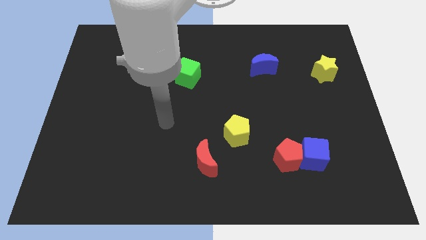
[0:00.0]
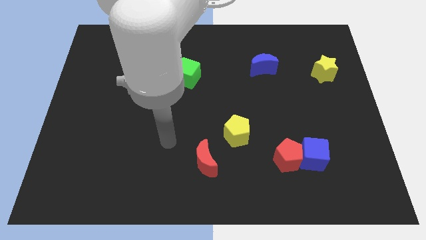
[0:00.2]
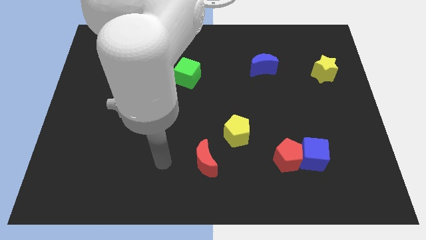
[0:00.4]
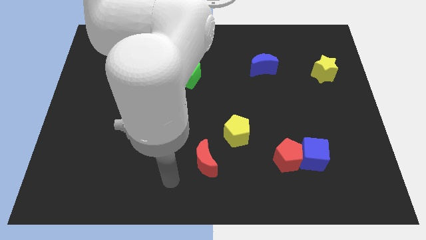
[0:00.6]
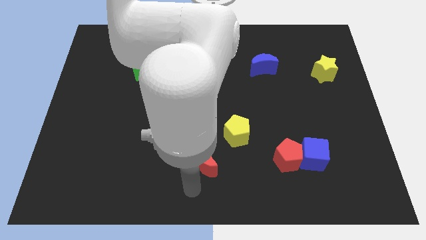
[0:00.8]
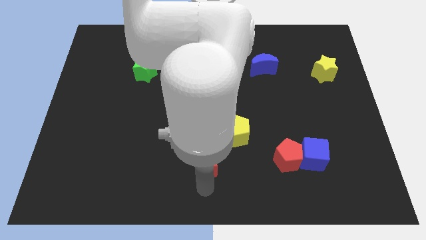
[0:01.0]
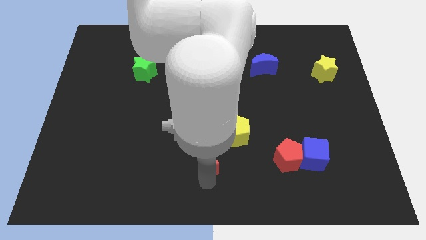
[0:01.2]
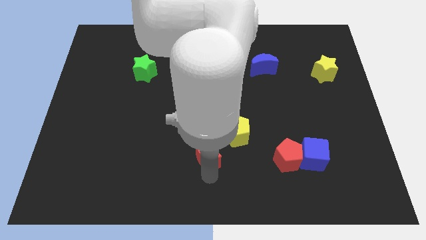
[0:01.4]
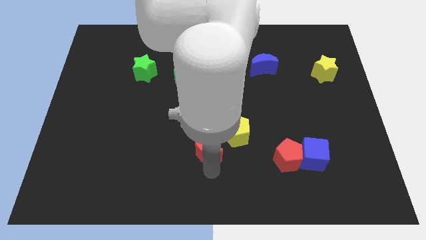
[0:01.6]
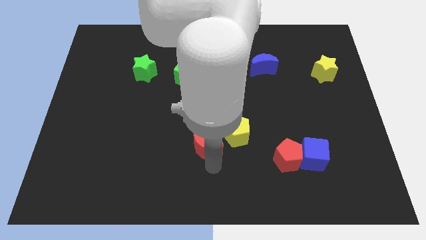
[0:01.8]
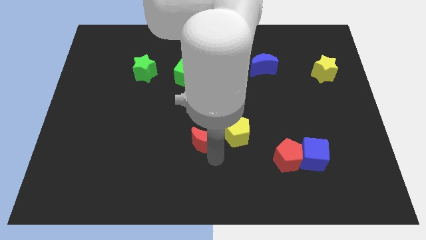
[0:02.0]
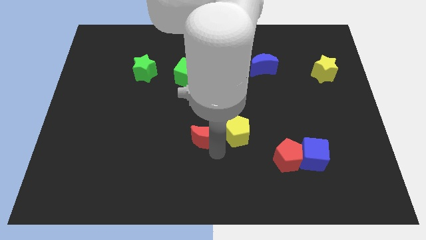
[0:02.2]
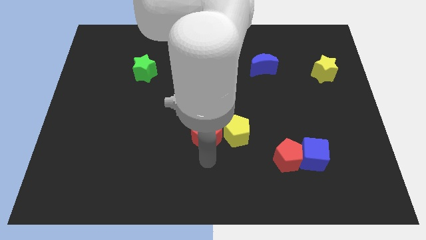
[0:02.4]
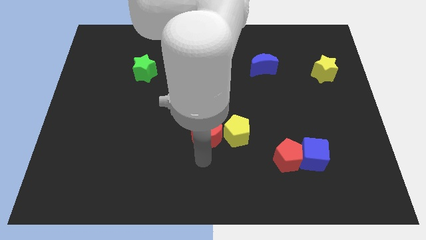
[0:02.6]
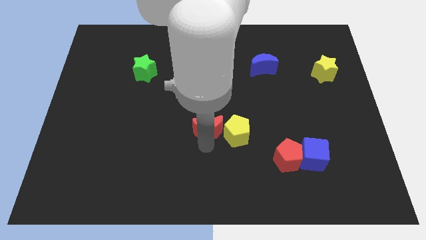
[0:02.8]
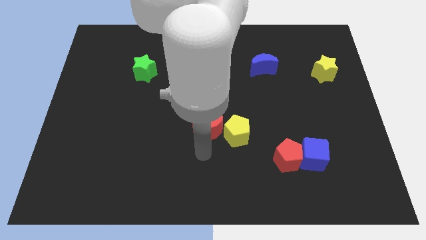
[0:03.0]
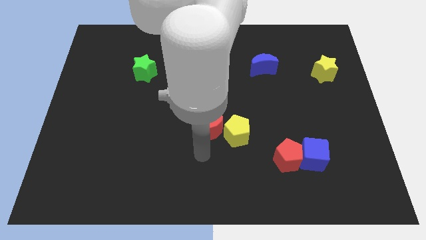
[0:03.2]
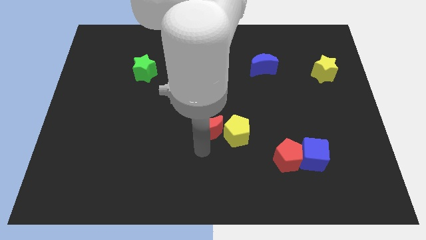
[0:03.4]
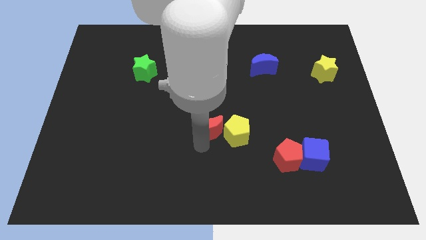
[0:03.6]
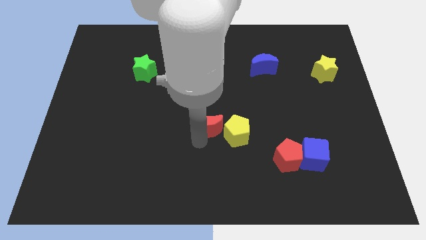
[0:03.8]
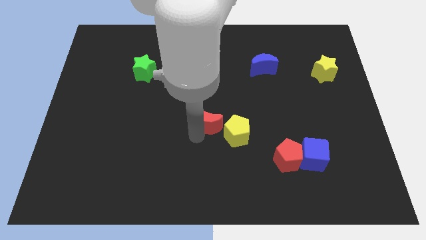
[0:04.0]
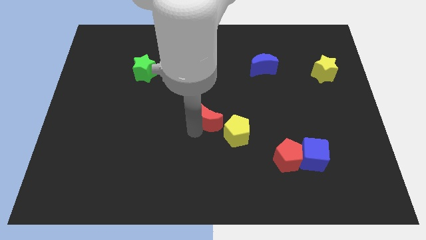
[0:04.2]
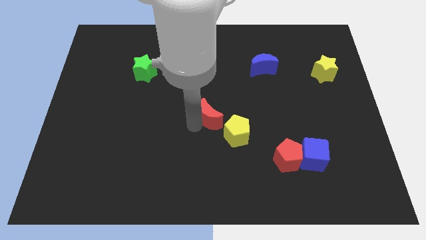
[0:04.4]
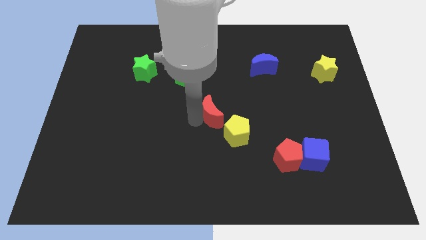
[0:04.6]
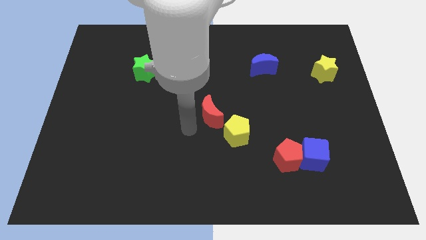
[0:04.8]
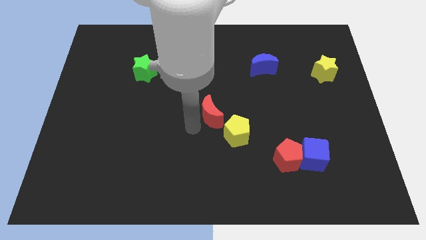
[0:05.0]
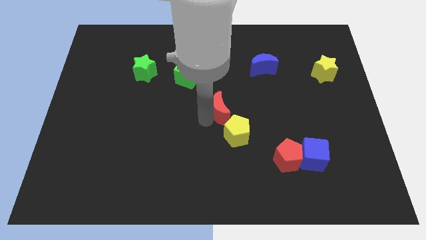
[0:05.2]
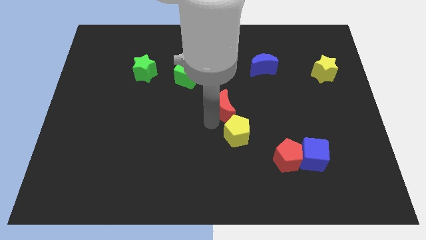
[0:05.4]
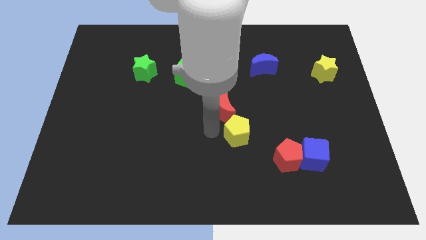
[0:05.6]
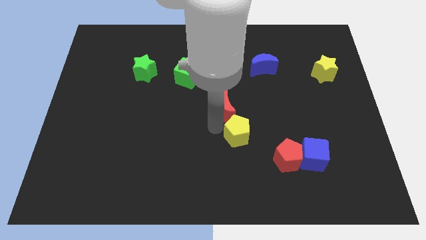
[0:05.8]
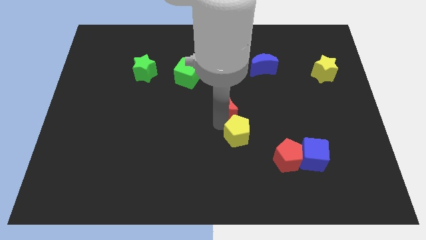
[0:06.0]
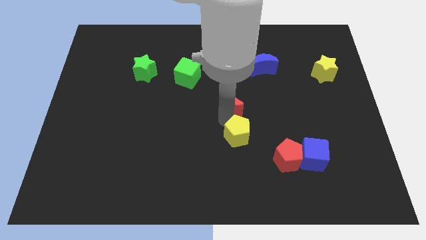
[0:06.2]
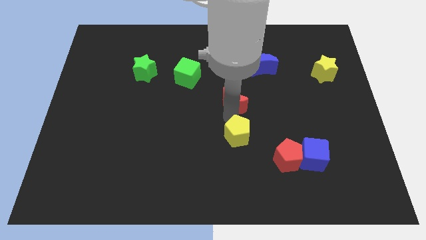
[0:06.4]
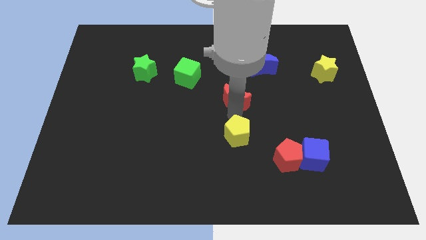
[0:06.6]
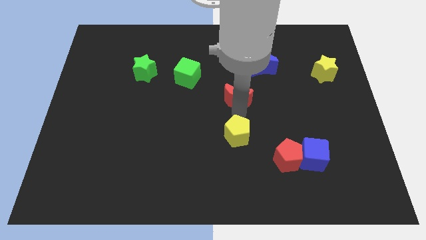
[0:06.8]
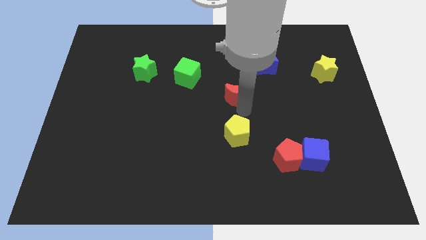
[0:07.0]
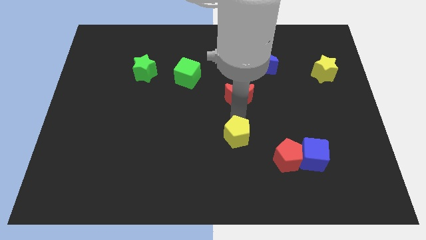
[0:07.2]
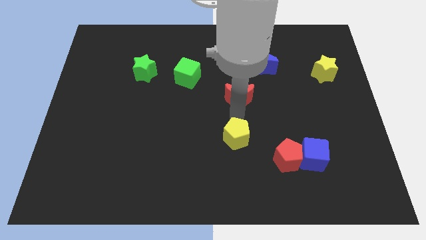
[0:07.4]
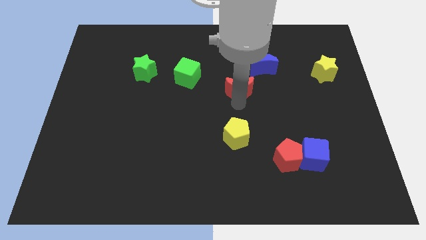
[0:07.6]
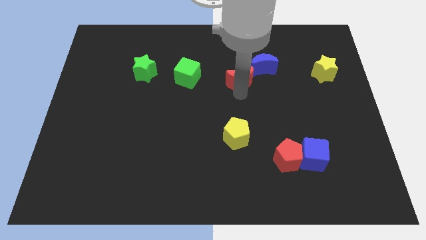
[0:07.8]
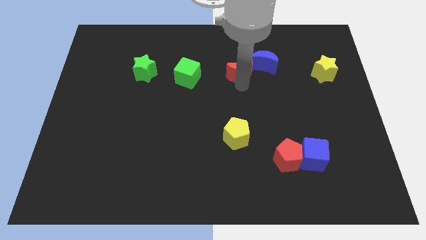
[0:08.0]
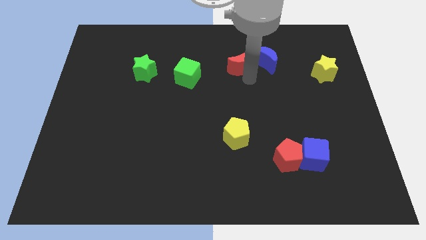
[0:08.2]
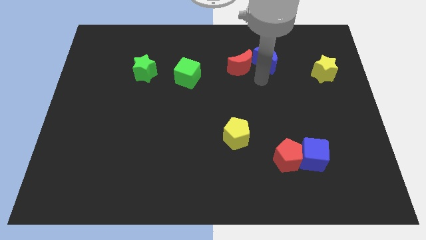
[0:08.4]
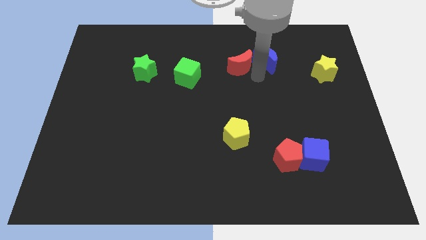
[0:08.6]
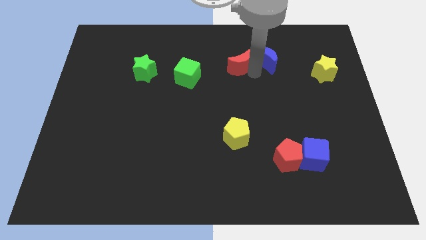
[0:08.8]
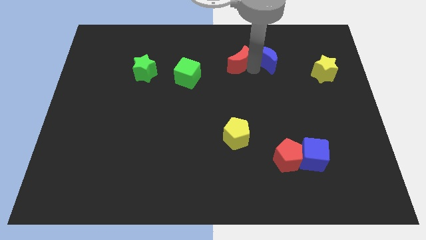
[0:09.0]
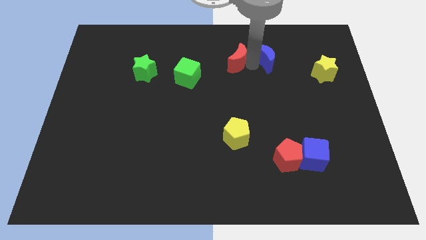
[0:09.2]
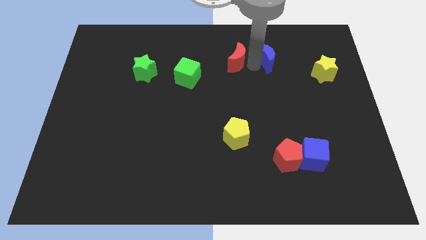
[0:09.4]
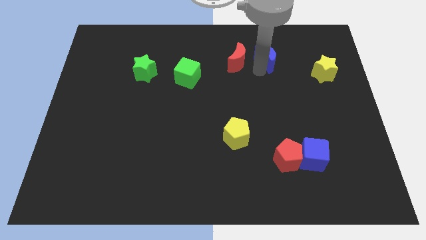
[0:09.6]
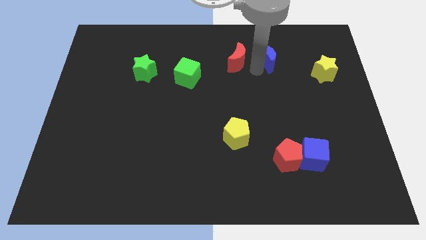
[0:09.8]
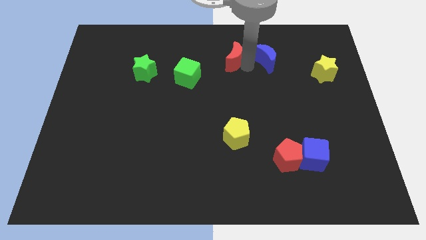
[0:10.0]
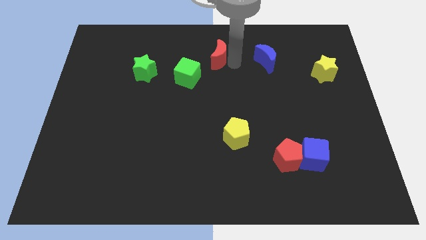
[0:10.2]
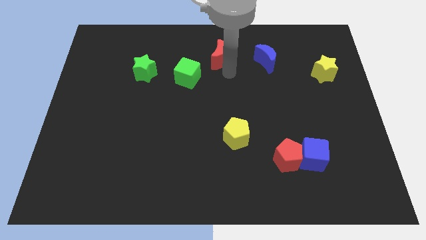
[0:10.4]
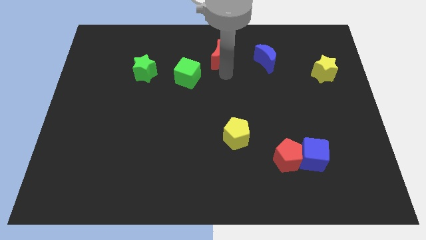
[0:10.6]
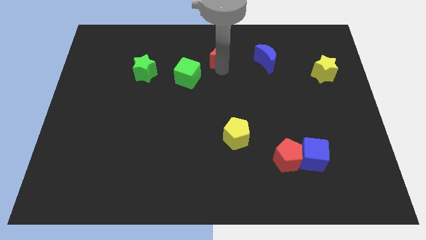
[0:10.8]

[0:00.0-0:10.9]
move the red moon to the top side

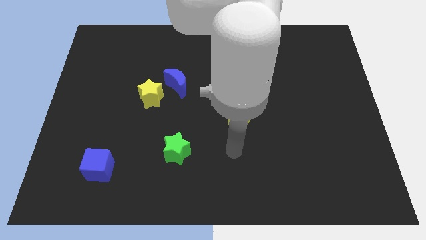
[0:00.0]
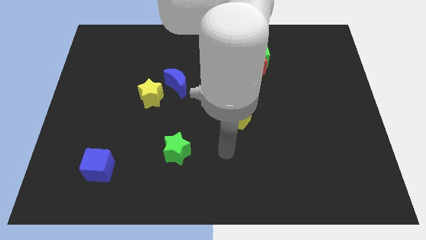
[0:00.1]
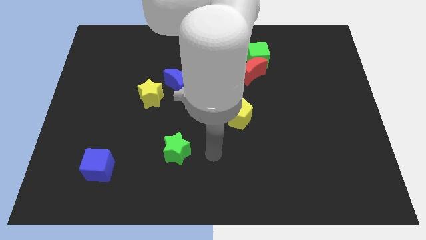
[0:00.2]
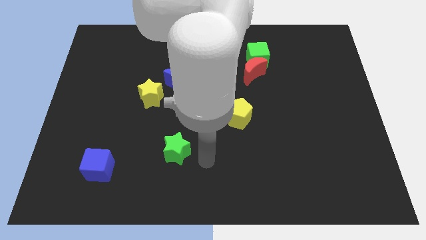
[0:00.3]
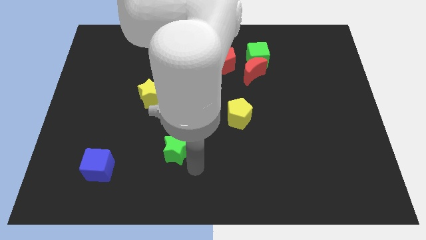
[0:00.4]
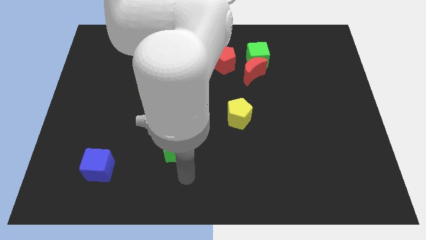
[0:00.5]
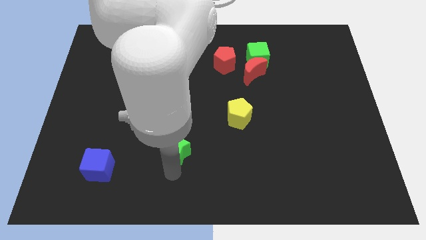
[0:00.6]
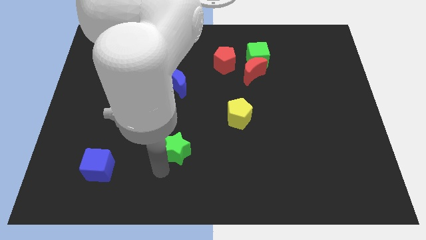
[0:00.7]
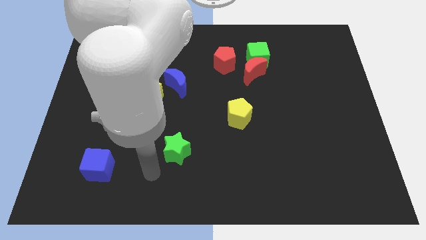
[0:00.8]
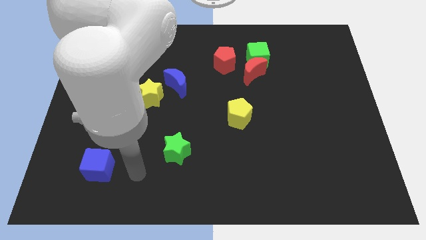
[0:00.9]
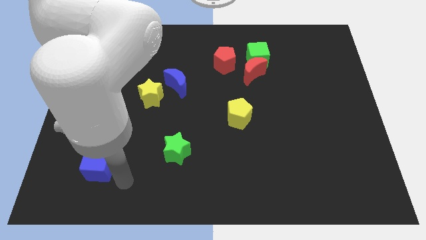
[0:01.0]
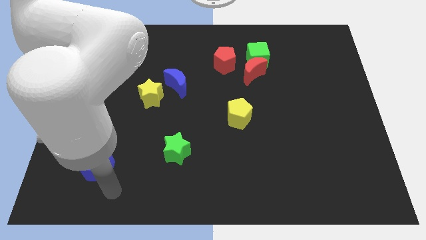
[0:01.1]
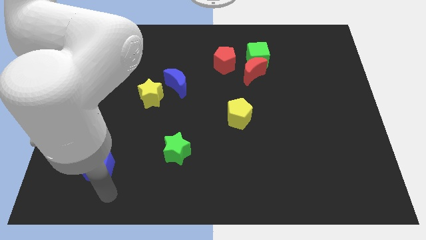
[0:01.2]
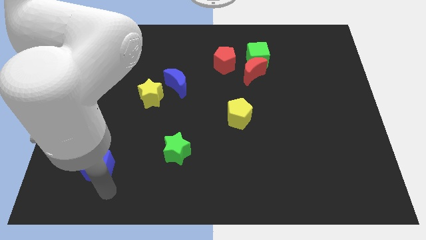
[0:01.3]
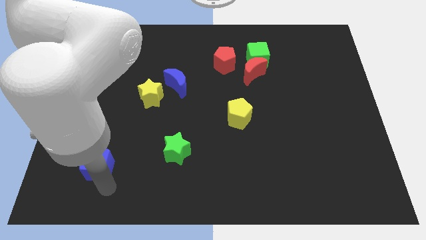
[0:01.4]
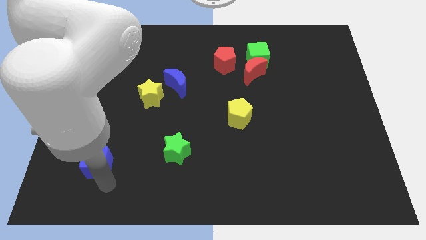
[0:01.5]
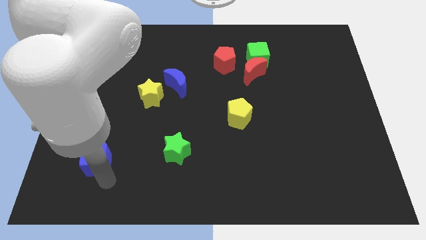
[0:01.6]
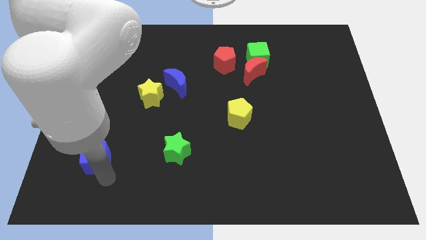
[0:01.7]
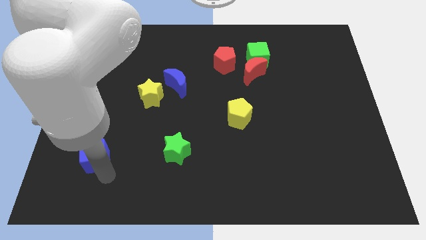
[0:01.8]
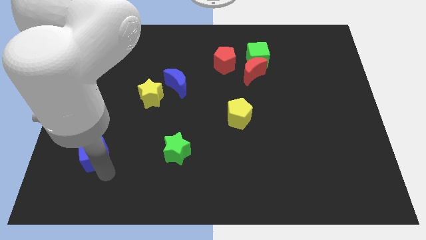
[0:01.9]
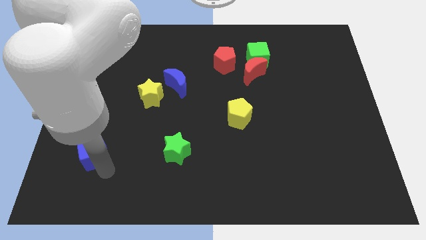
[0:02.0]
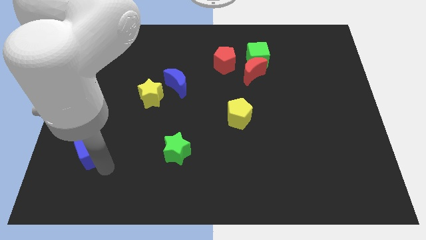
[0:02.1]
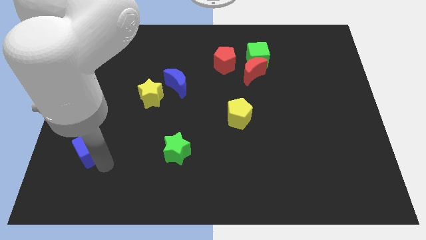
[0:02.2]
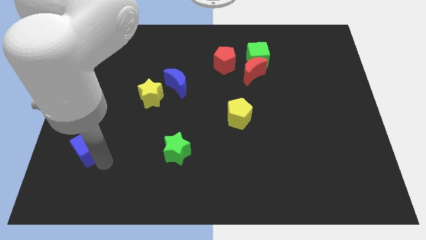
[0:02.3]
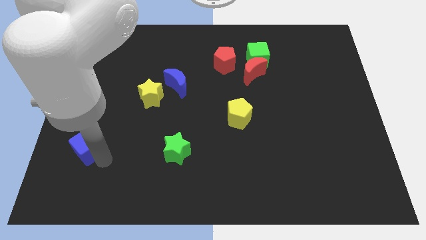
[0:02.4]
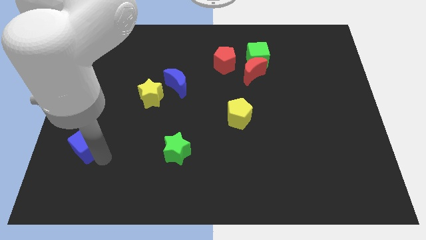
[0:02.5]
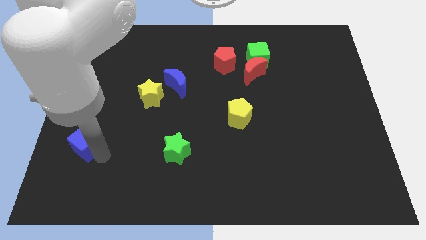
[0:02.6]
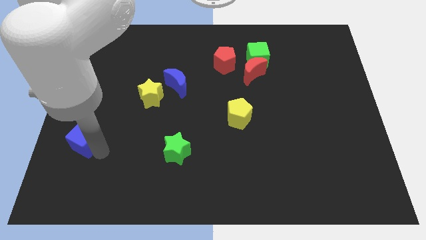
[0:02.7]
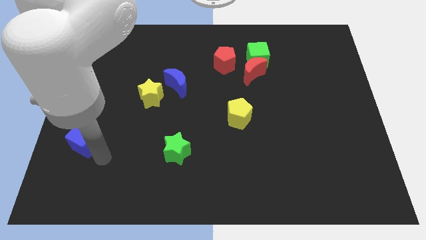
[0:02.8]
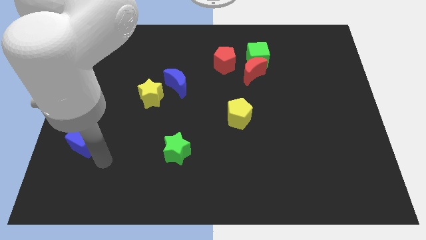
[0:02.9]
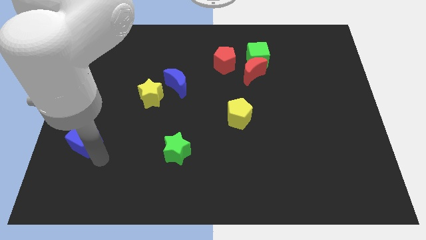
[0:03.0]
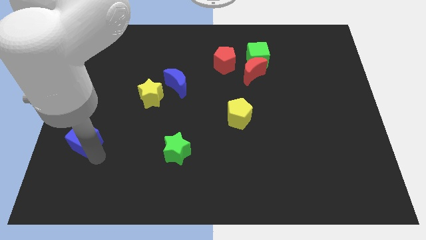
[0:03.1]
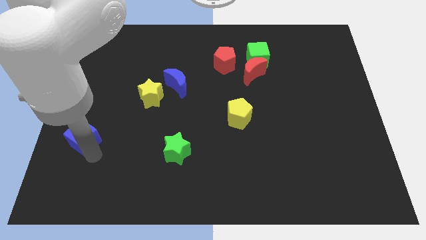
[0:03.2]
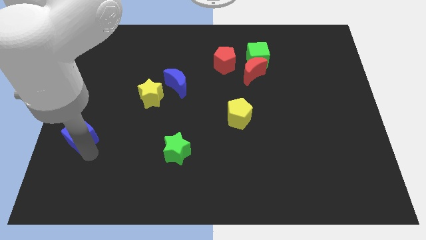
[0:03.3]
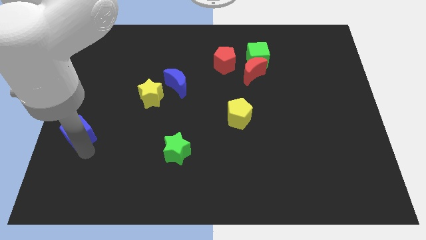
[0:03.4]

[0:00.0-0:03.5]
push the blue cube to the left side of the board
